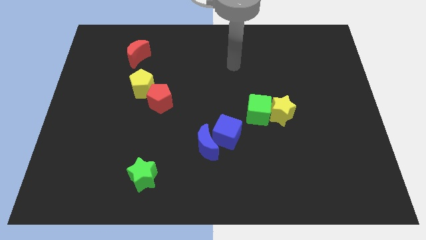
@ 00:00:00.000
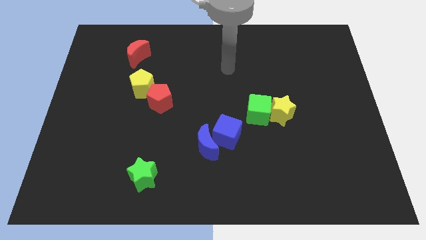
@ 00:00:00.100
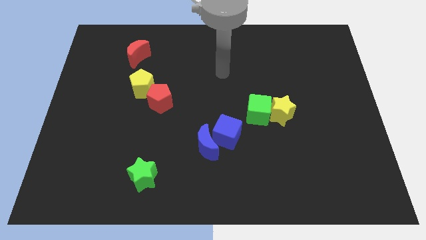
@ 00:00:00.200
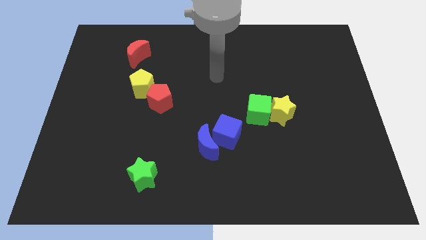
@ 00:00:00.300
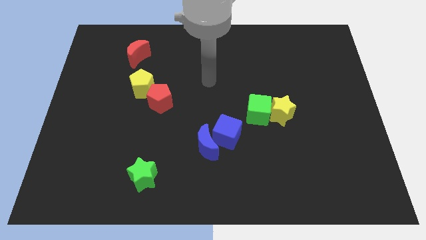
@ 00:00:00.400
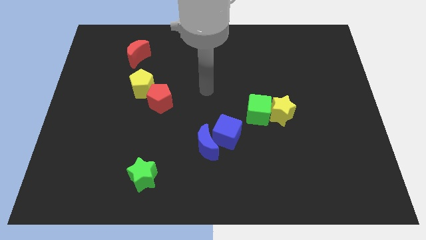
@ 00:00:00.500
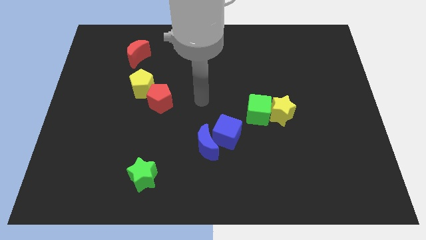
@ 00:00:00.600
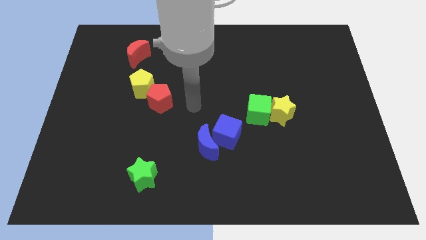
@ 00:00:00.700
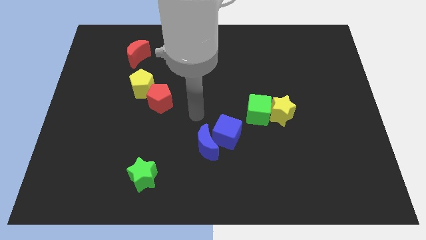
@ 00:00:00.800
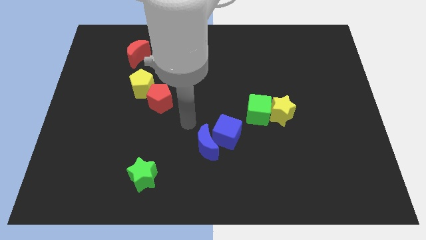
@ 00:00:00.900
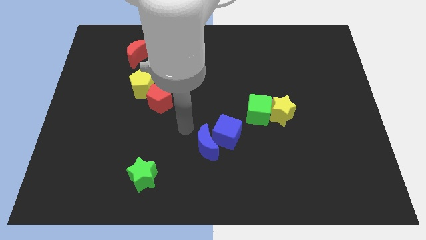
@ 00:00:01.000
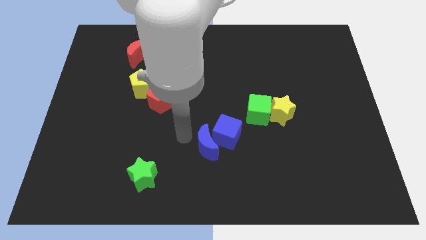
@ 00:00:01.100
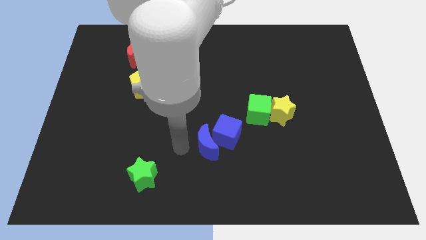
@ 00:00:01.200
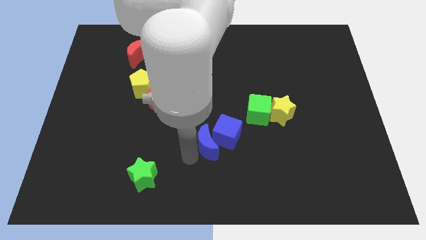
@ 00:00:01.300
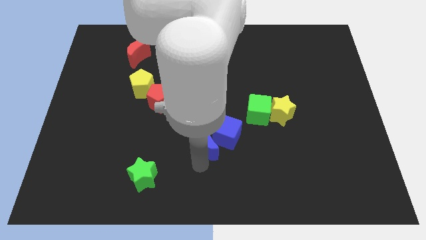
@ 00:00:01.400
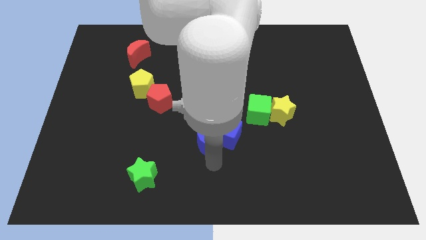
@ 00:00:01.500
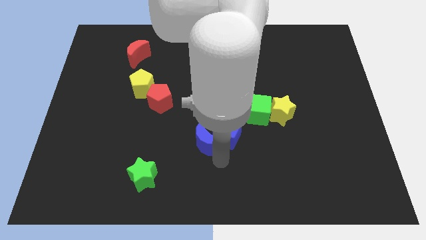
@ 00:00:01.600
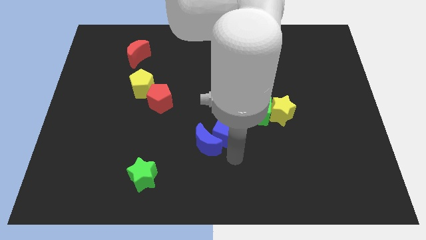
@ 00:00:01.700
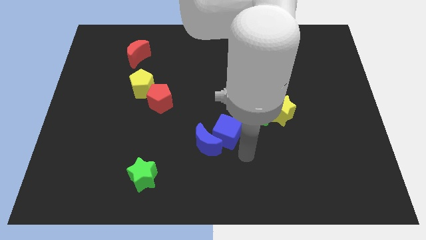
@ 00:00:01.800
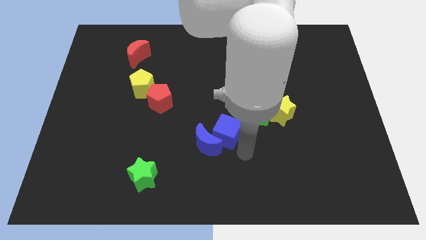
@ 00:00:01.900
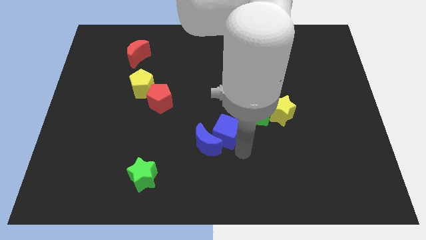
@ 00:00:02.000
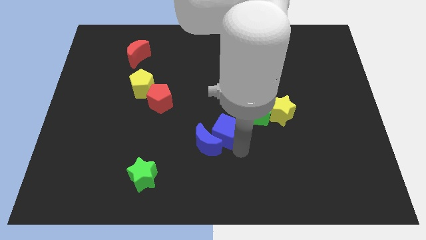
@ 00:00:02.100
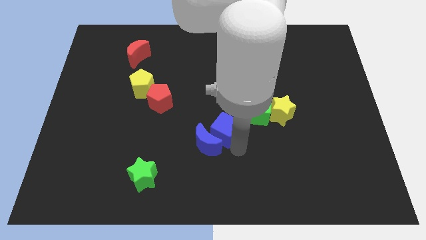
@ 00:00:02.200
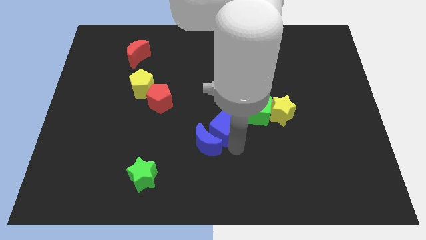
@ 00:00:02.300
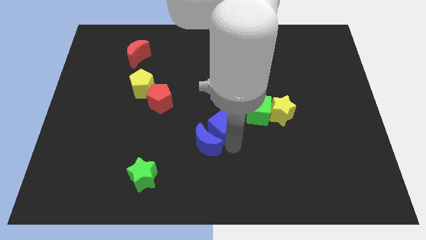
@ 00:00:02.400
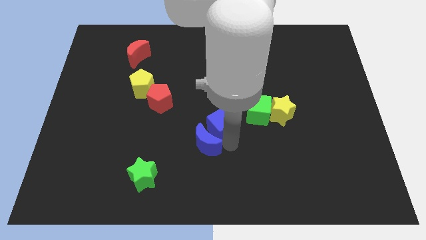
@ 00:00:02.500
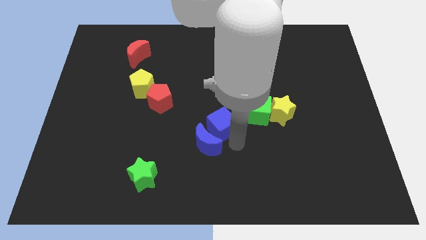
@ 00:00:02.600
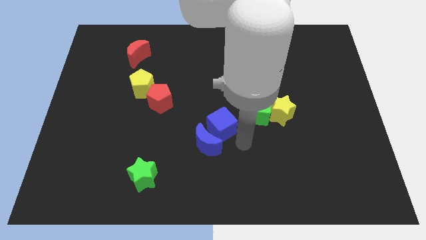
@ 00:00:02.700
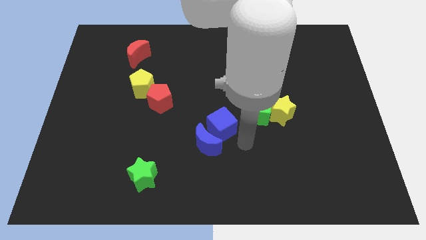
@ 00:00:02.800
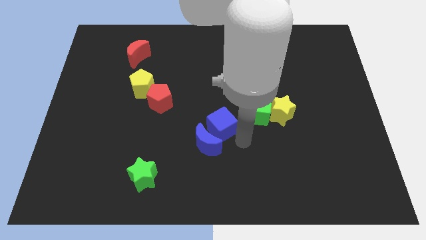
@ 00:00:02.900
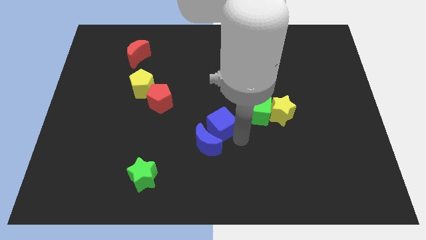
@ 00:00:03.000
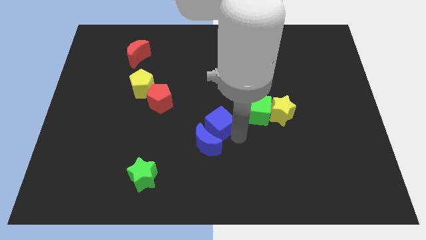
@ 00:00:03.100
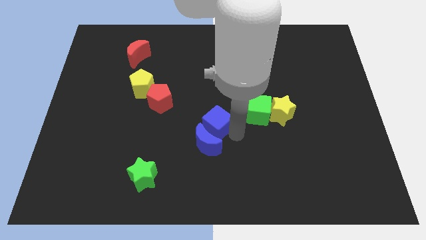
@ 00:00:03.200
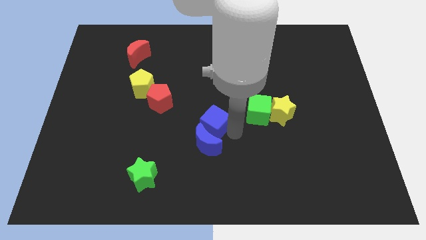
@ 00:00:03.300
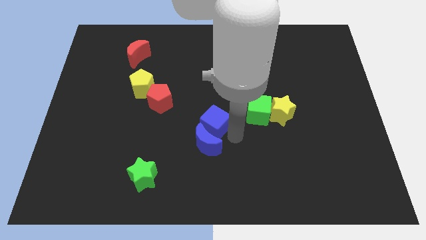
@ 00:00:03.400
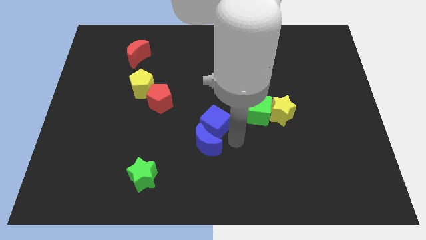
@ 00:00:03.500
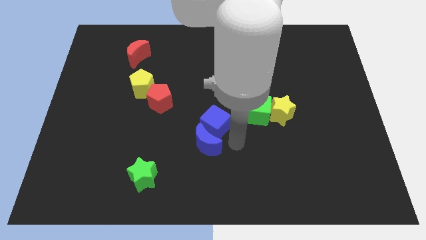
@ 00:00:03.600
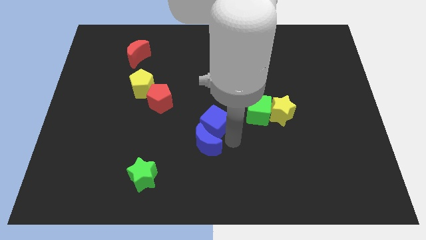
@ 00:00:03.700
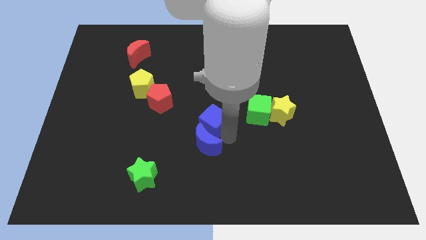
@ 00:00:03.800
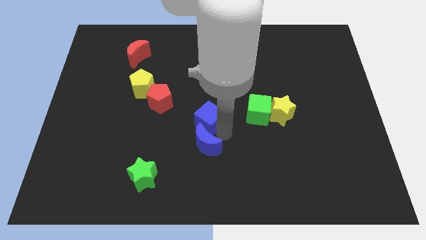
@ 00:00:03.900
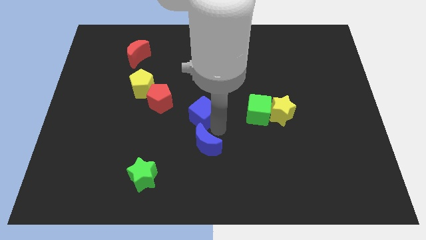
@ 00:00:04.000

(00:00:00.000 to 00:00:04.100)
slide the blue cube upwards and then to the left slightly

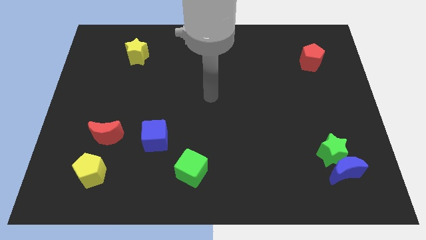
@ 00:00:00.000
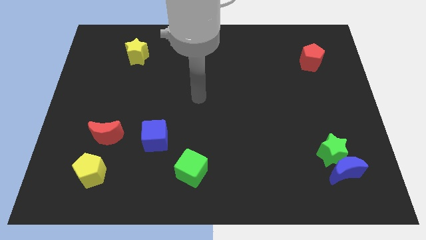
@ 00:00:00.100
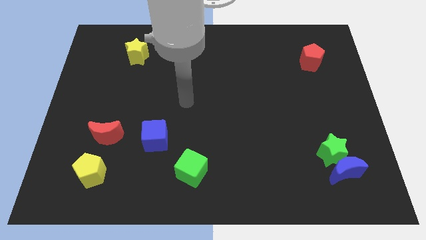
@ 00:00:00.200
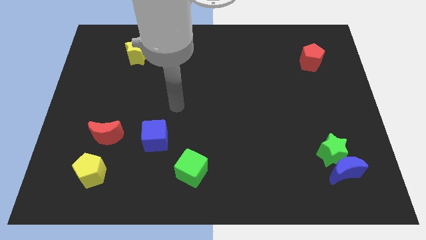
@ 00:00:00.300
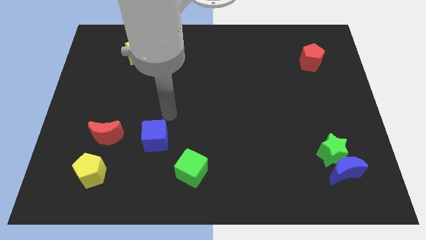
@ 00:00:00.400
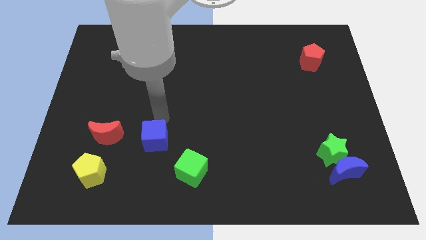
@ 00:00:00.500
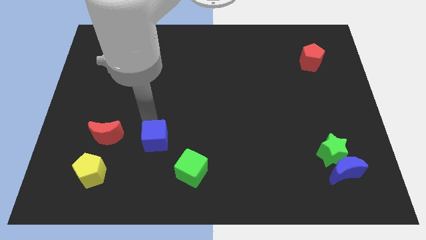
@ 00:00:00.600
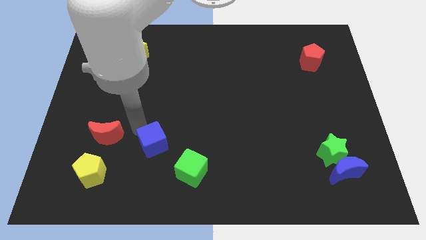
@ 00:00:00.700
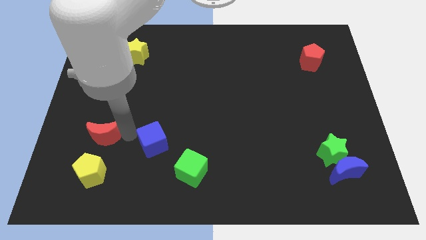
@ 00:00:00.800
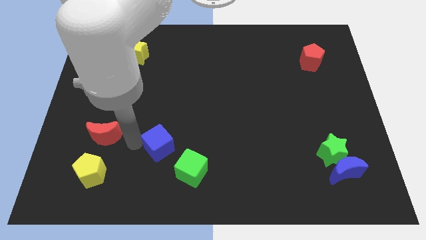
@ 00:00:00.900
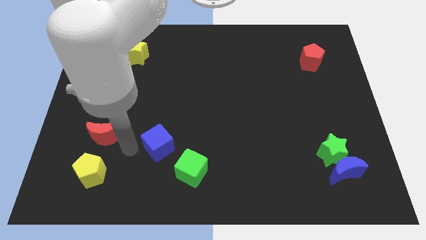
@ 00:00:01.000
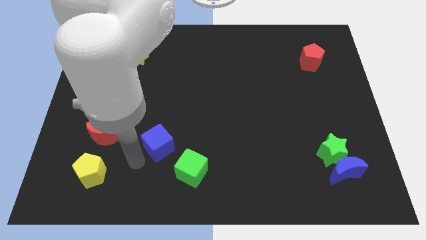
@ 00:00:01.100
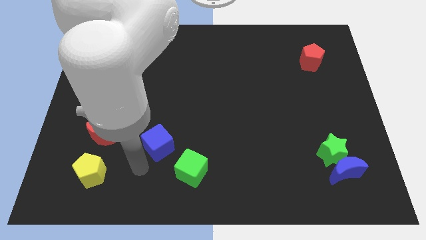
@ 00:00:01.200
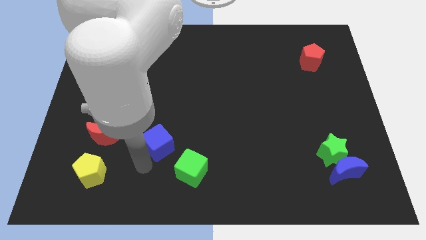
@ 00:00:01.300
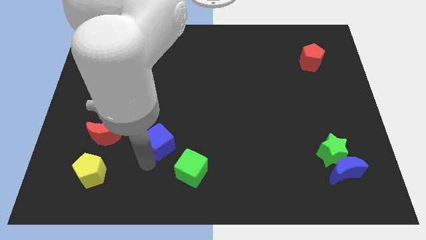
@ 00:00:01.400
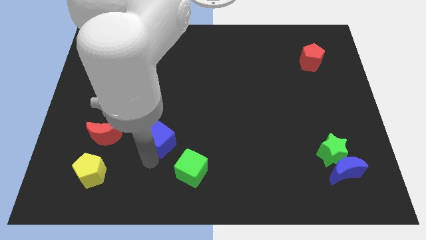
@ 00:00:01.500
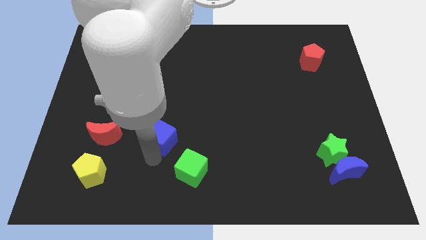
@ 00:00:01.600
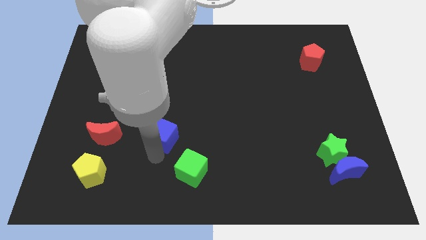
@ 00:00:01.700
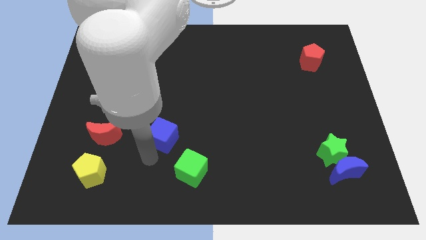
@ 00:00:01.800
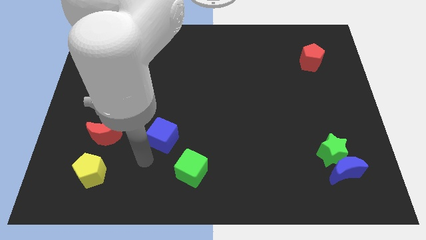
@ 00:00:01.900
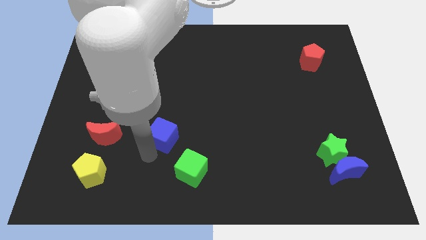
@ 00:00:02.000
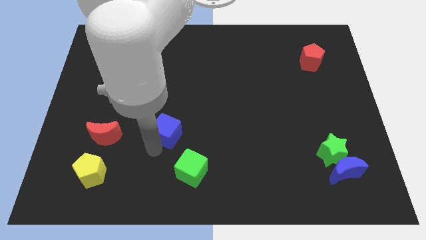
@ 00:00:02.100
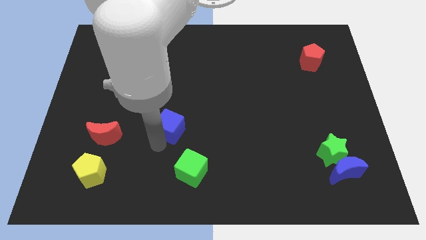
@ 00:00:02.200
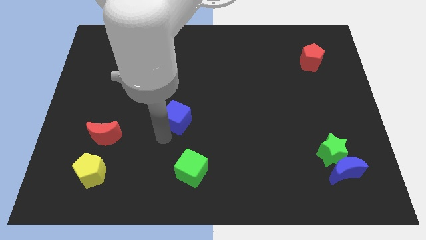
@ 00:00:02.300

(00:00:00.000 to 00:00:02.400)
slightly push the blue cube upwards and right diagonally

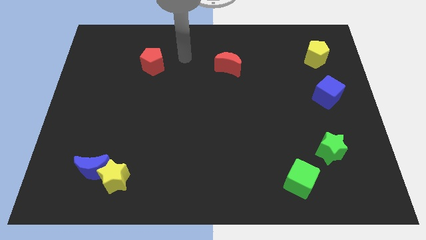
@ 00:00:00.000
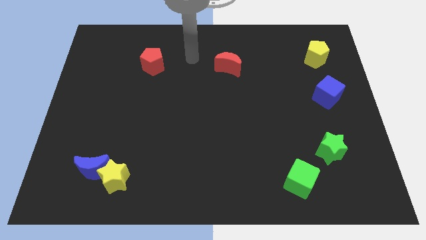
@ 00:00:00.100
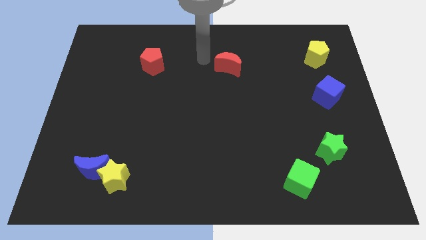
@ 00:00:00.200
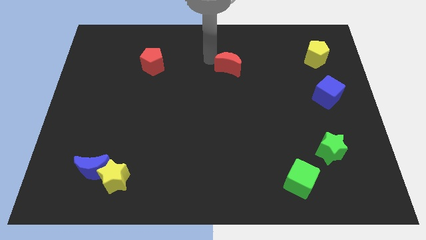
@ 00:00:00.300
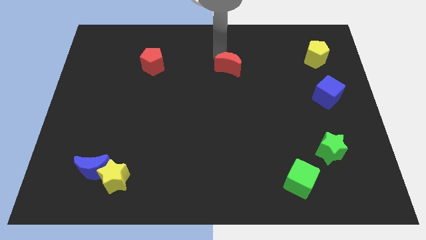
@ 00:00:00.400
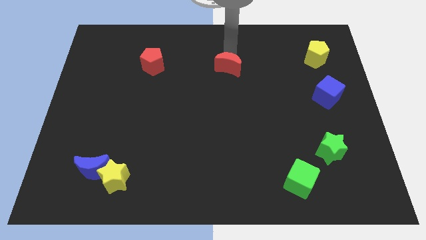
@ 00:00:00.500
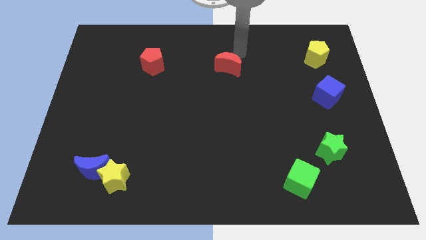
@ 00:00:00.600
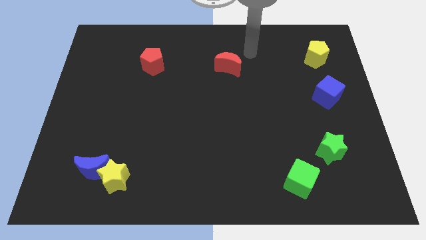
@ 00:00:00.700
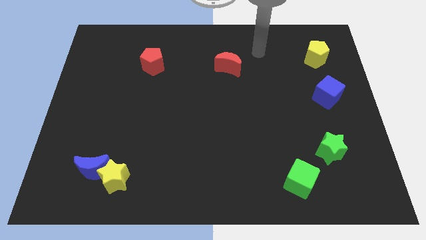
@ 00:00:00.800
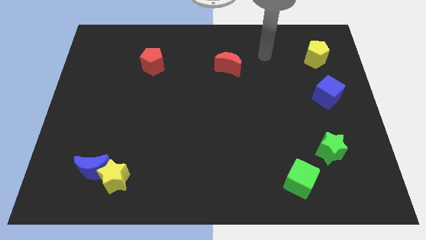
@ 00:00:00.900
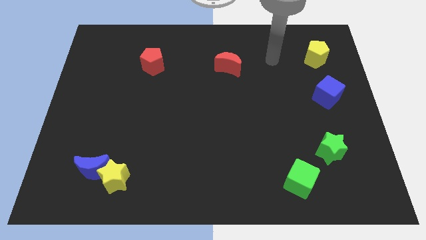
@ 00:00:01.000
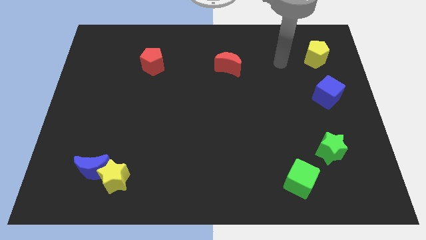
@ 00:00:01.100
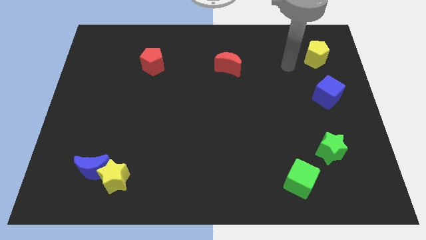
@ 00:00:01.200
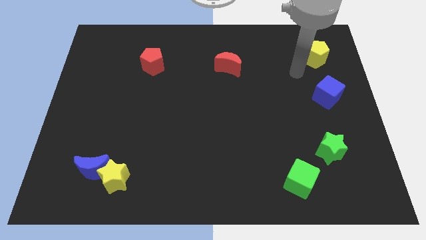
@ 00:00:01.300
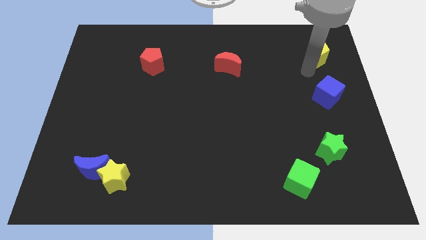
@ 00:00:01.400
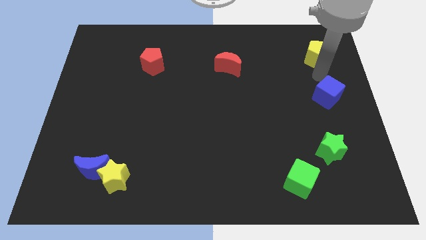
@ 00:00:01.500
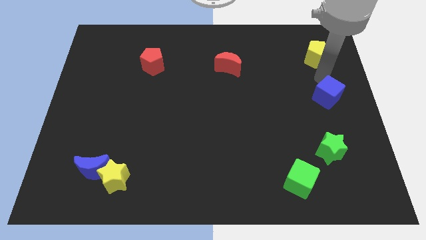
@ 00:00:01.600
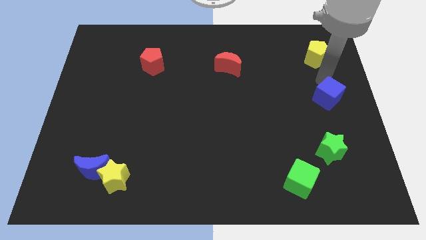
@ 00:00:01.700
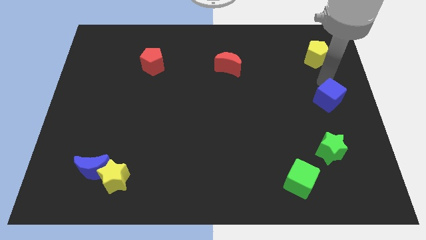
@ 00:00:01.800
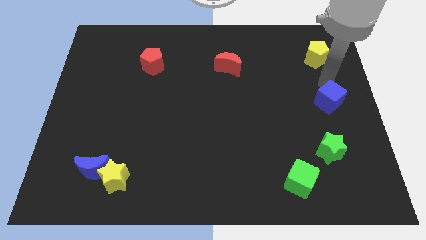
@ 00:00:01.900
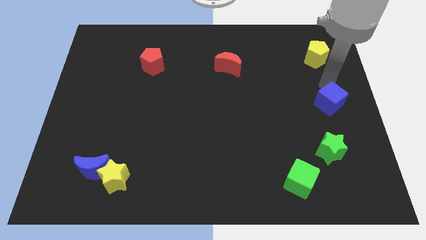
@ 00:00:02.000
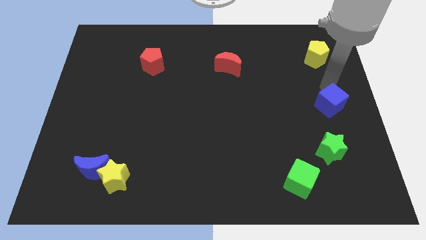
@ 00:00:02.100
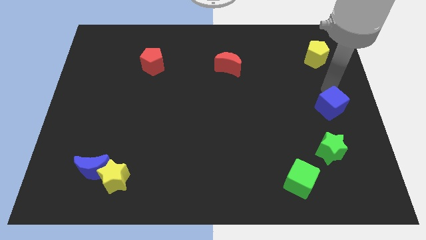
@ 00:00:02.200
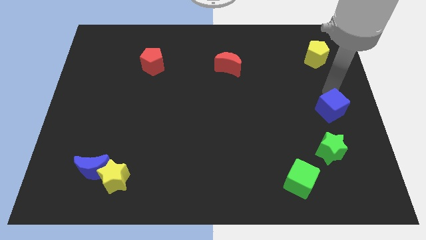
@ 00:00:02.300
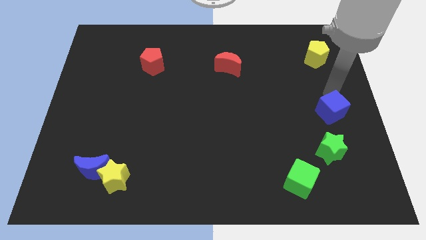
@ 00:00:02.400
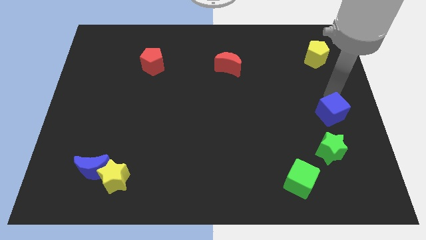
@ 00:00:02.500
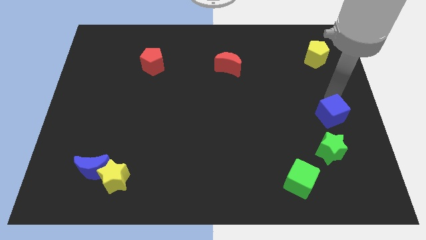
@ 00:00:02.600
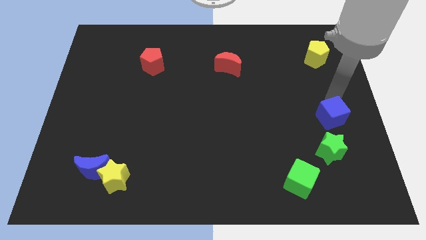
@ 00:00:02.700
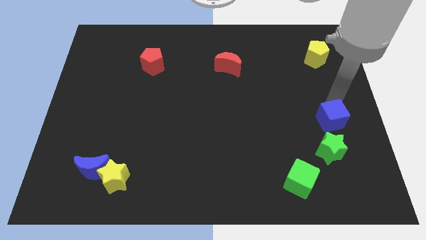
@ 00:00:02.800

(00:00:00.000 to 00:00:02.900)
slightly slide the blue cube down
